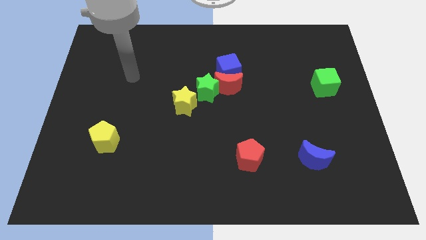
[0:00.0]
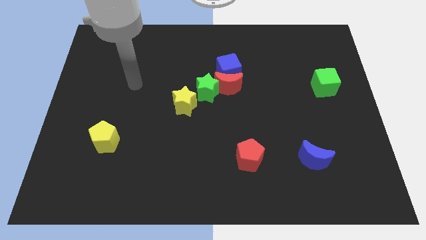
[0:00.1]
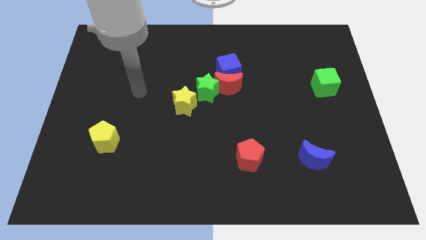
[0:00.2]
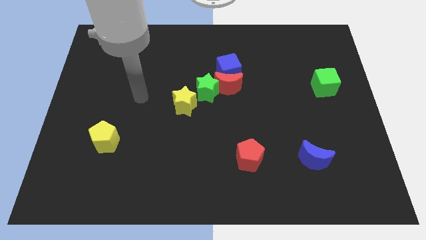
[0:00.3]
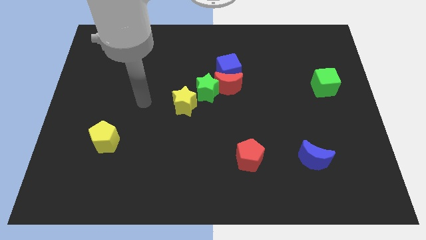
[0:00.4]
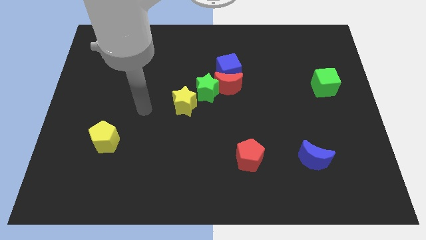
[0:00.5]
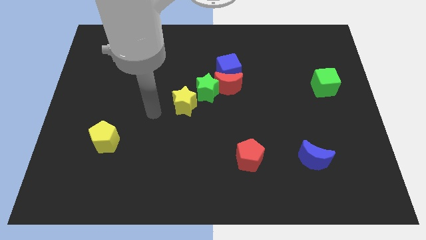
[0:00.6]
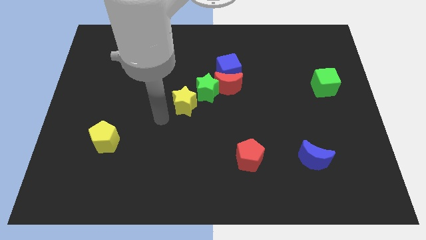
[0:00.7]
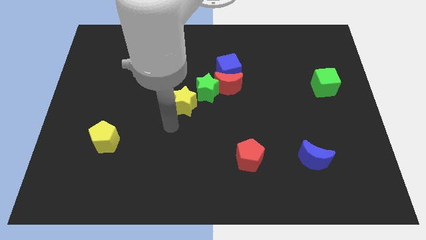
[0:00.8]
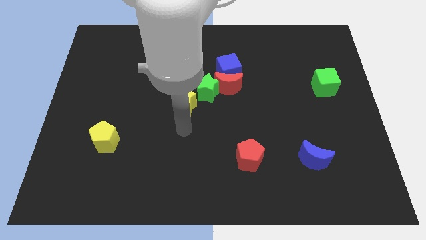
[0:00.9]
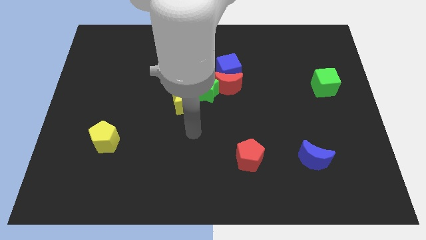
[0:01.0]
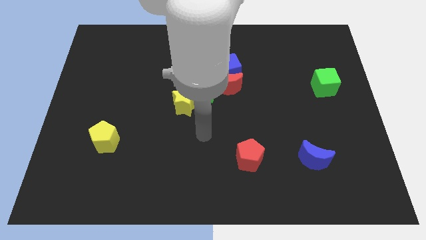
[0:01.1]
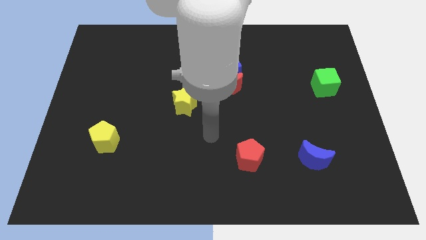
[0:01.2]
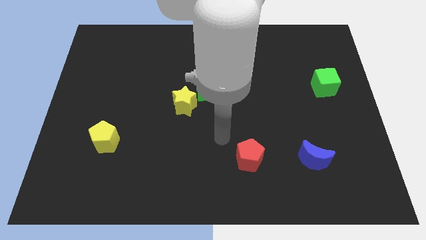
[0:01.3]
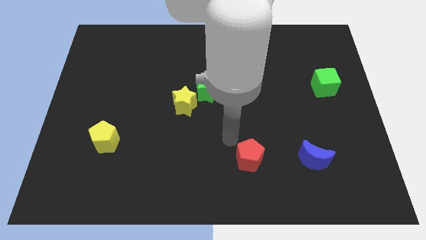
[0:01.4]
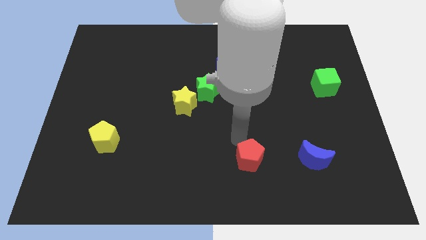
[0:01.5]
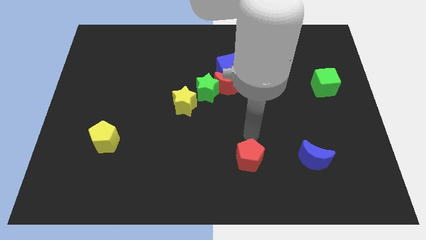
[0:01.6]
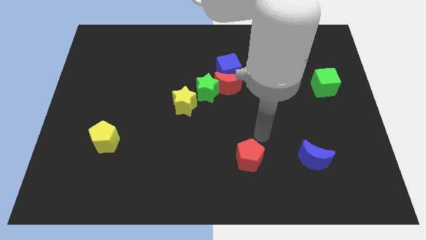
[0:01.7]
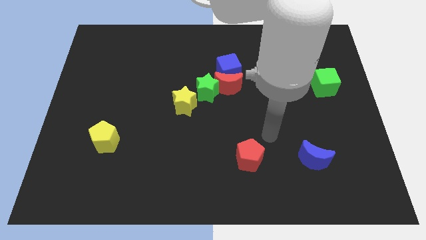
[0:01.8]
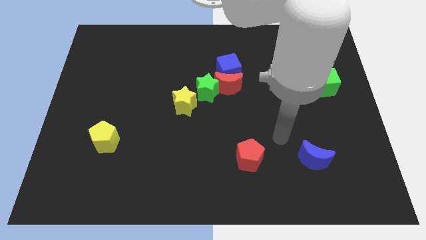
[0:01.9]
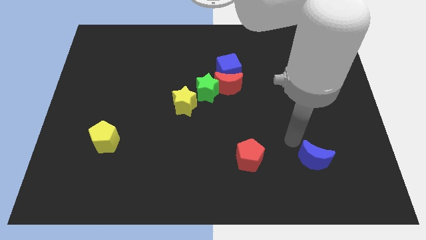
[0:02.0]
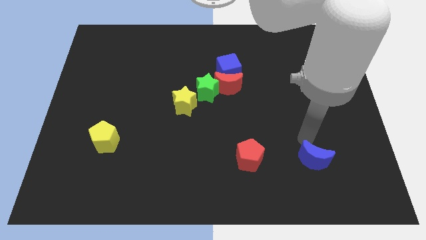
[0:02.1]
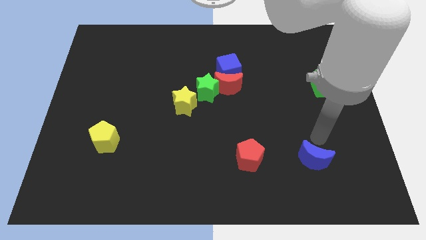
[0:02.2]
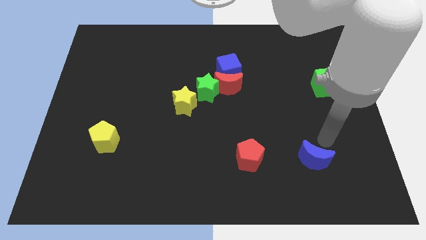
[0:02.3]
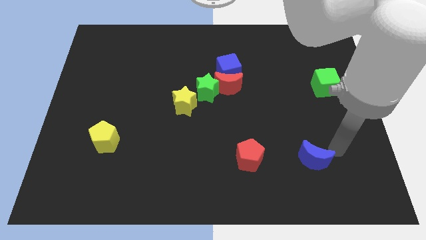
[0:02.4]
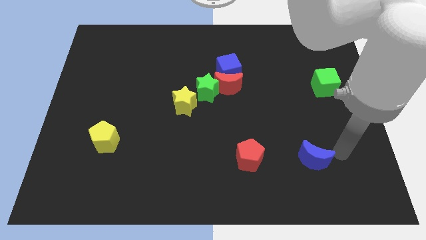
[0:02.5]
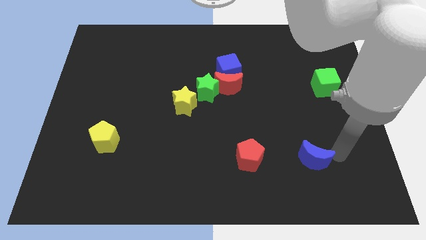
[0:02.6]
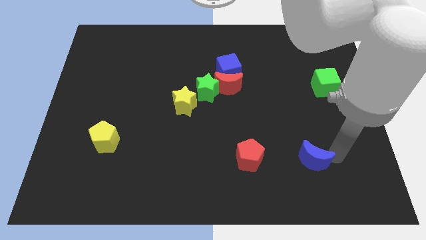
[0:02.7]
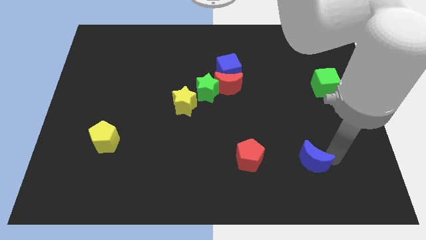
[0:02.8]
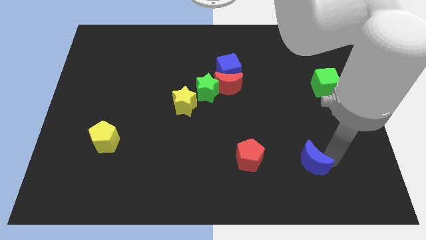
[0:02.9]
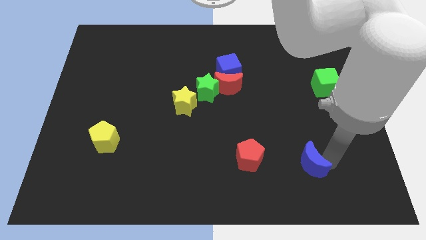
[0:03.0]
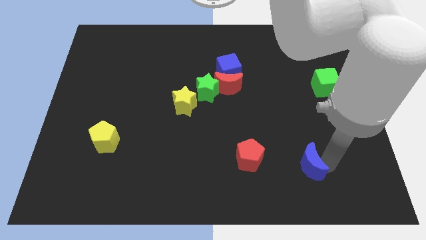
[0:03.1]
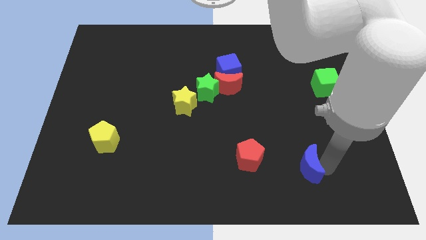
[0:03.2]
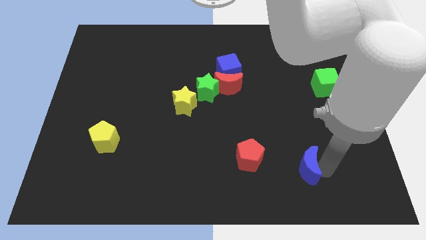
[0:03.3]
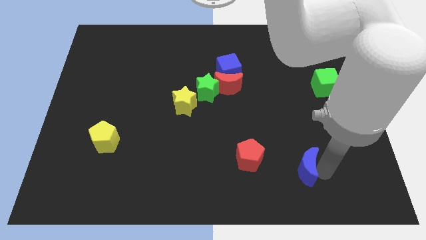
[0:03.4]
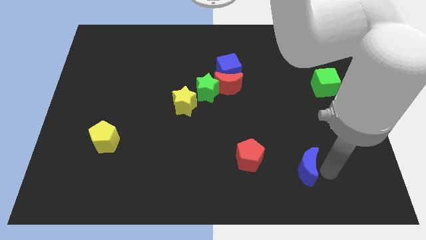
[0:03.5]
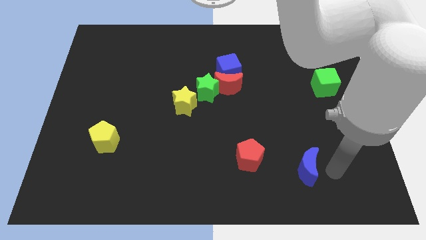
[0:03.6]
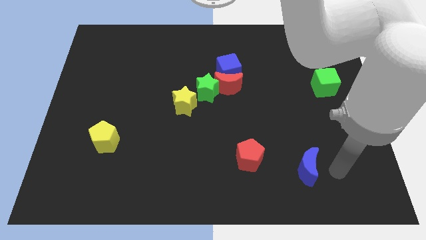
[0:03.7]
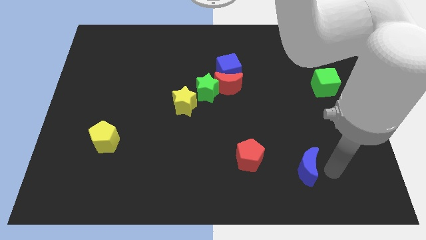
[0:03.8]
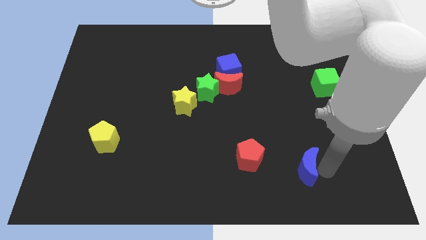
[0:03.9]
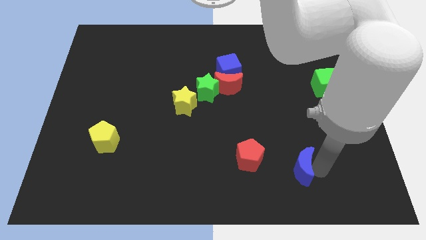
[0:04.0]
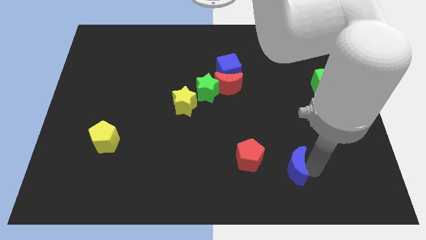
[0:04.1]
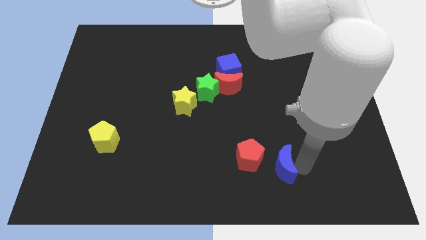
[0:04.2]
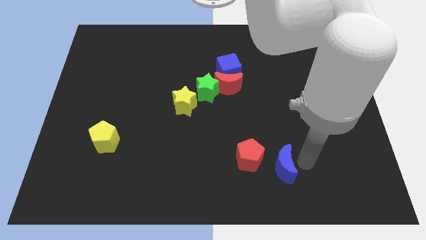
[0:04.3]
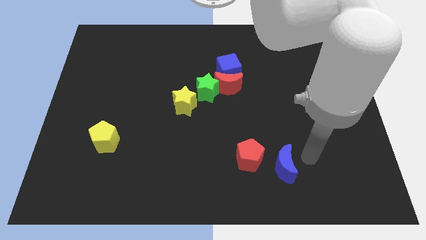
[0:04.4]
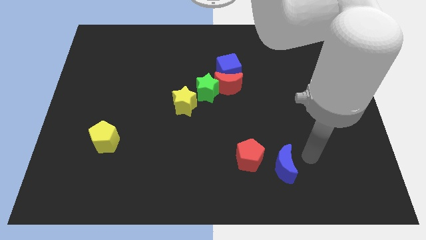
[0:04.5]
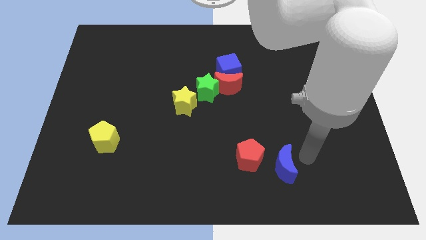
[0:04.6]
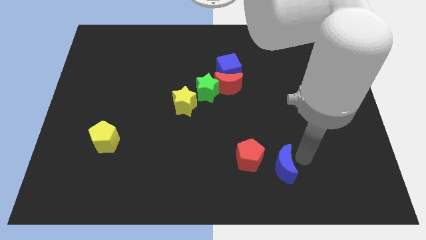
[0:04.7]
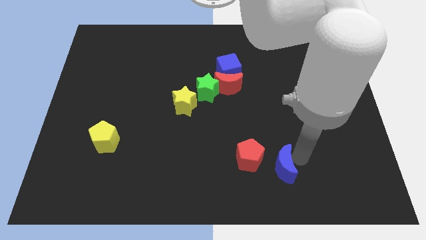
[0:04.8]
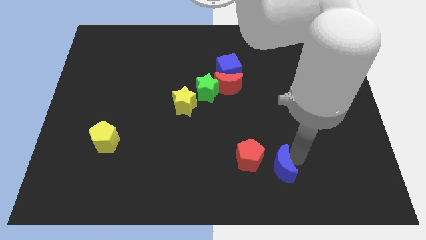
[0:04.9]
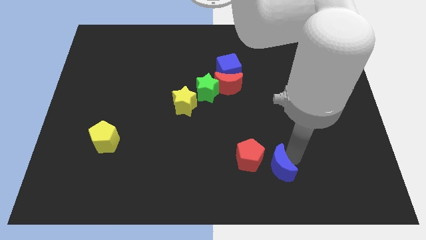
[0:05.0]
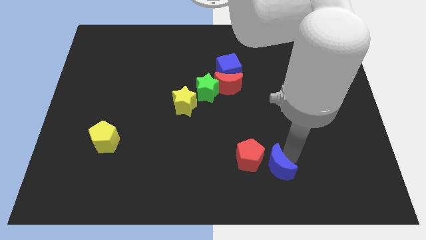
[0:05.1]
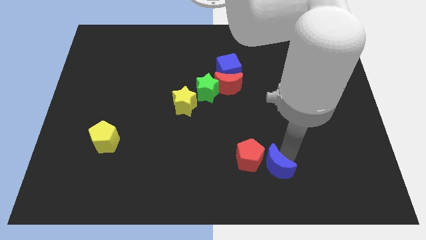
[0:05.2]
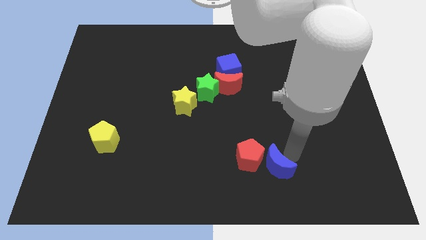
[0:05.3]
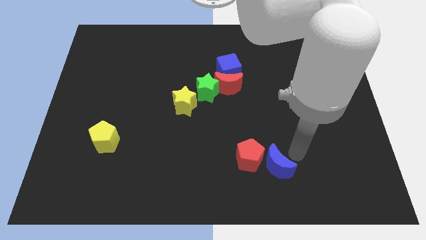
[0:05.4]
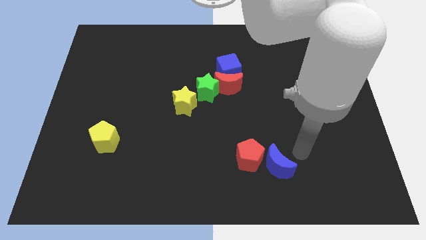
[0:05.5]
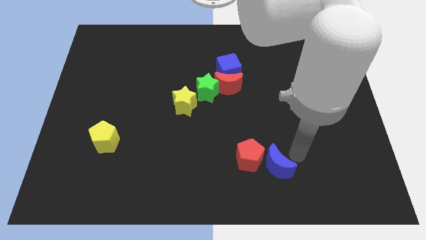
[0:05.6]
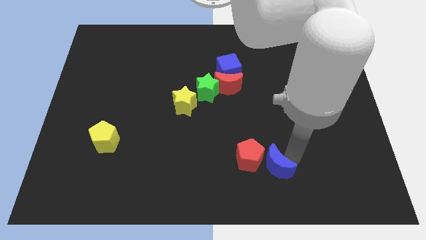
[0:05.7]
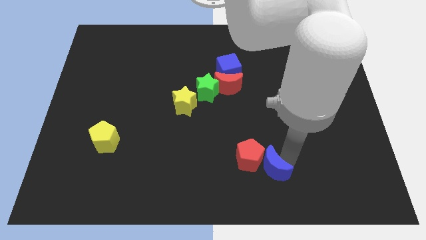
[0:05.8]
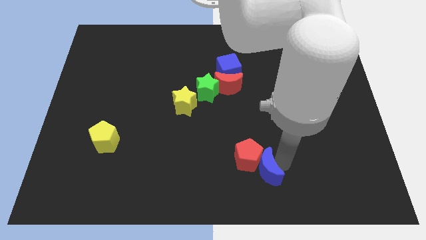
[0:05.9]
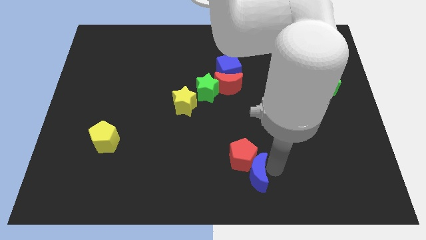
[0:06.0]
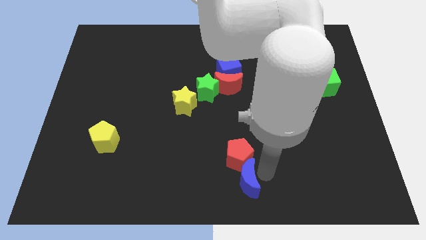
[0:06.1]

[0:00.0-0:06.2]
slide the blue moon to the bottom left of the red pentagon
